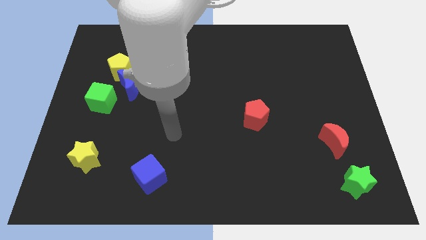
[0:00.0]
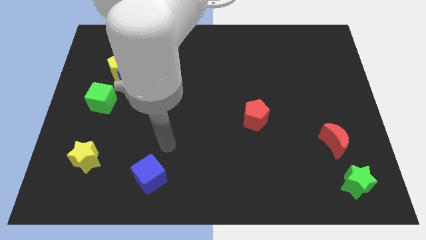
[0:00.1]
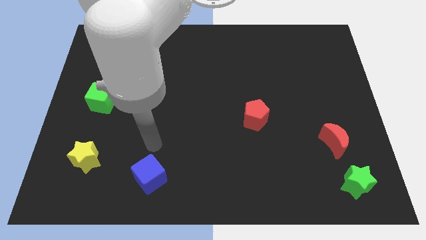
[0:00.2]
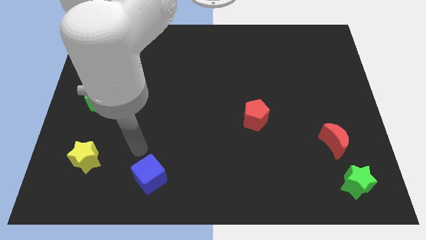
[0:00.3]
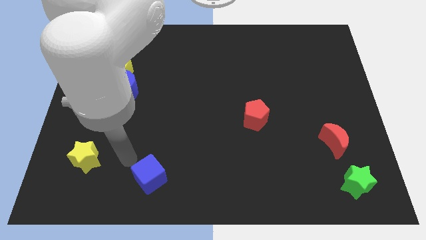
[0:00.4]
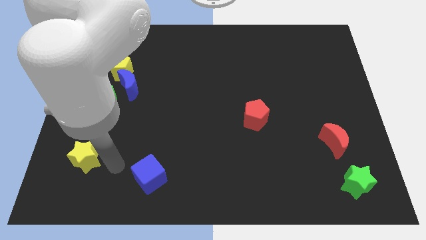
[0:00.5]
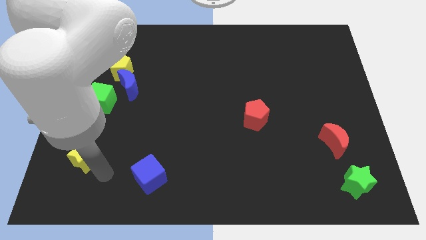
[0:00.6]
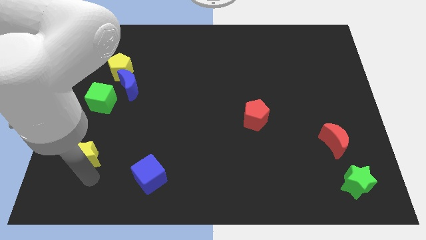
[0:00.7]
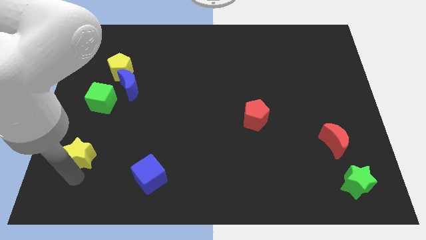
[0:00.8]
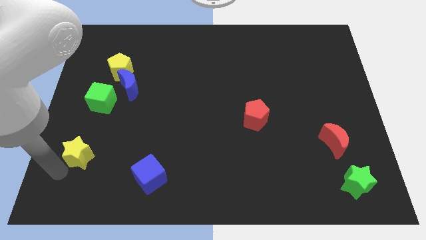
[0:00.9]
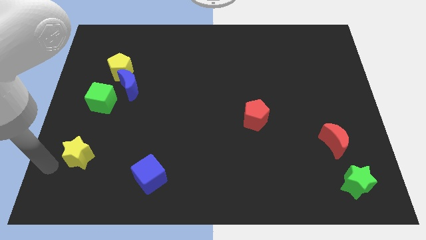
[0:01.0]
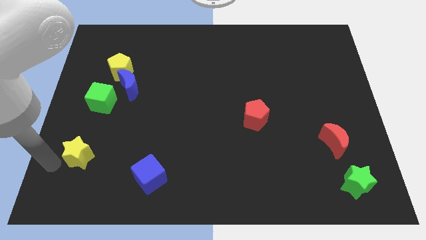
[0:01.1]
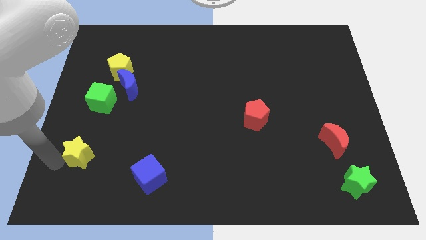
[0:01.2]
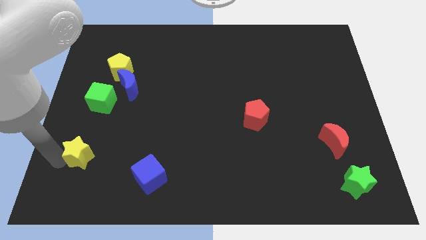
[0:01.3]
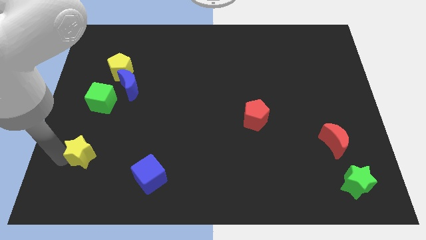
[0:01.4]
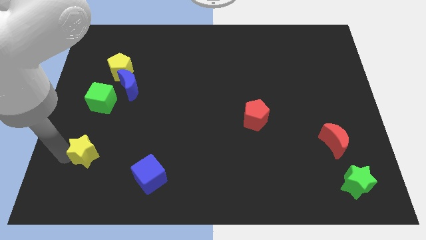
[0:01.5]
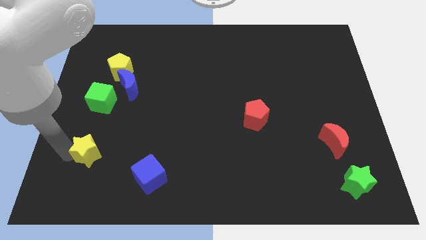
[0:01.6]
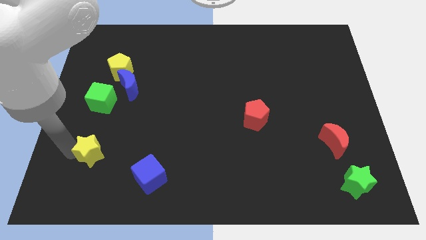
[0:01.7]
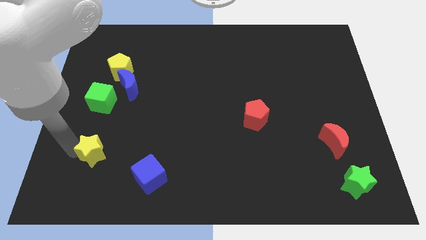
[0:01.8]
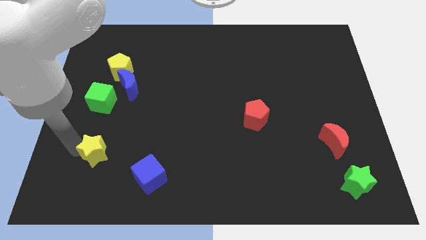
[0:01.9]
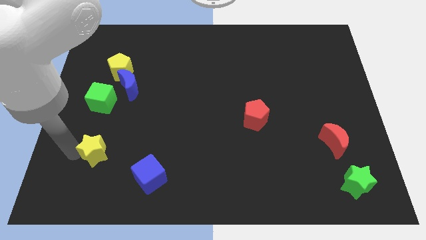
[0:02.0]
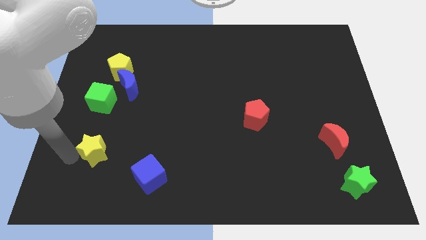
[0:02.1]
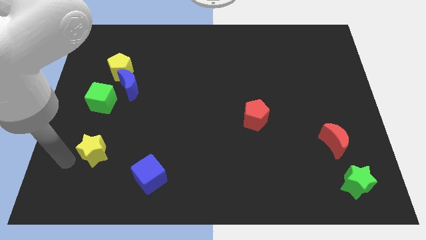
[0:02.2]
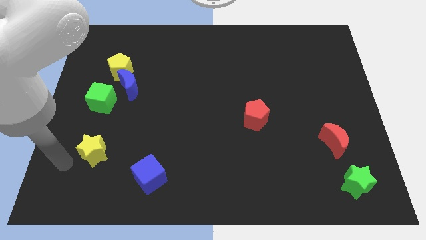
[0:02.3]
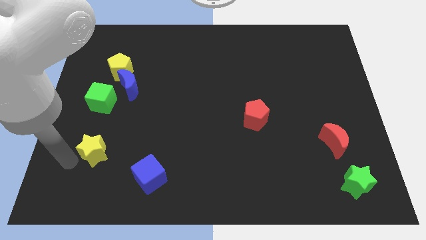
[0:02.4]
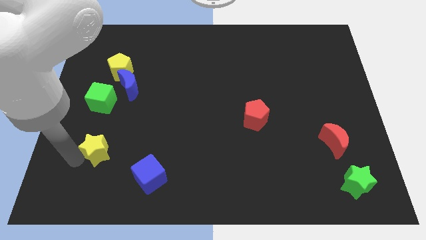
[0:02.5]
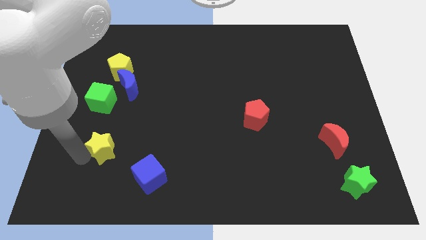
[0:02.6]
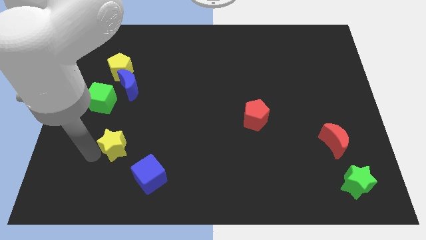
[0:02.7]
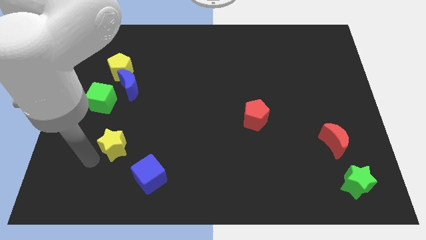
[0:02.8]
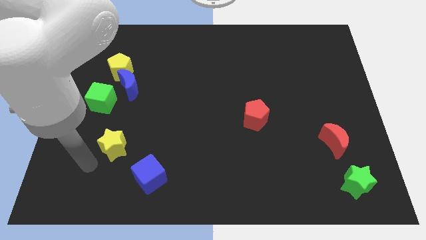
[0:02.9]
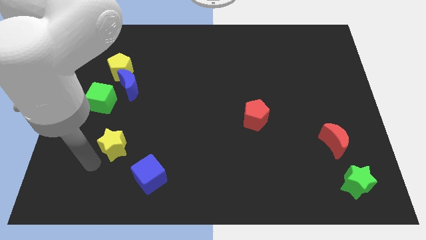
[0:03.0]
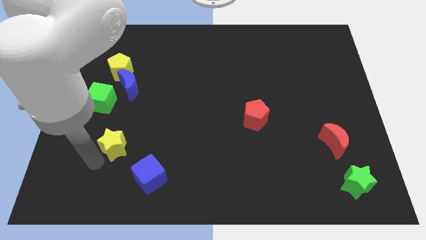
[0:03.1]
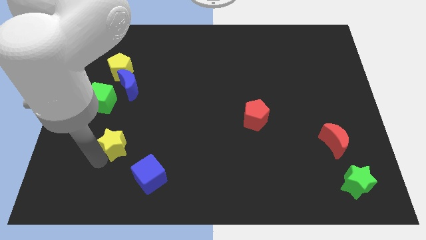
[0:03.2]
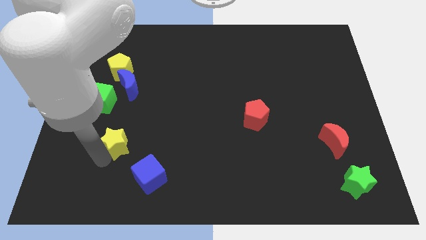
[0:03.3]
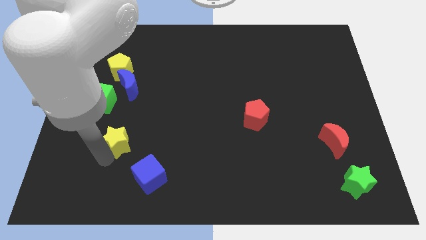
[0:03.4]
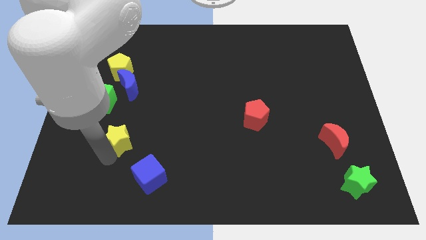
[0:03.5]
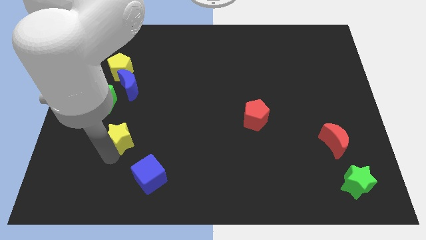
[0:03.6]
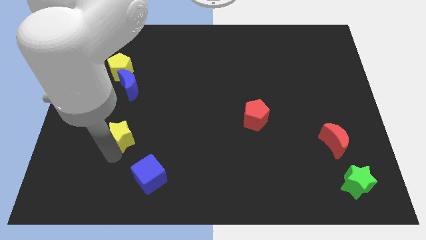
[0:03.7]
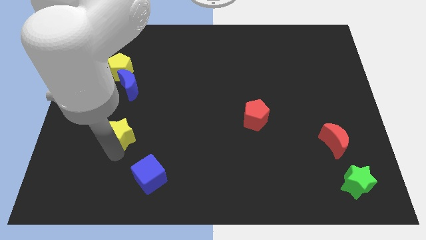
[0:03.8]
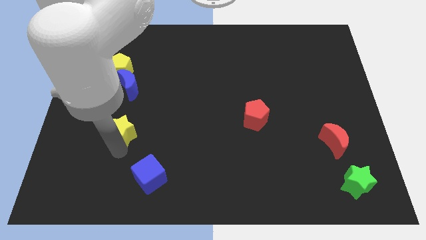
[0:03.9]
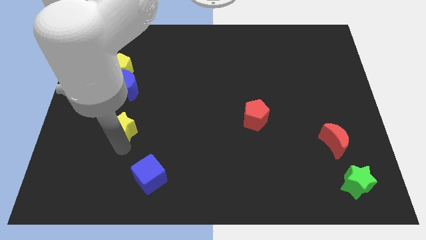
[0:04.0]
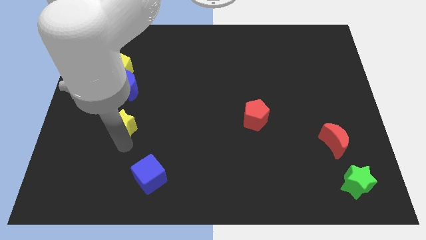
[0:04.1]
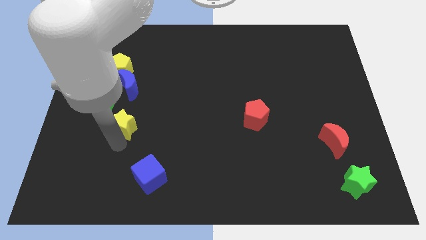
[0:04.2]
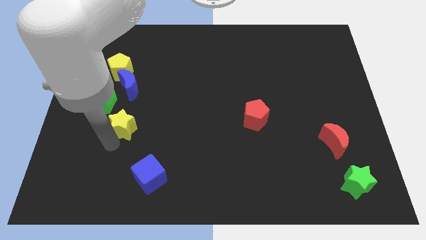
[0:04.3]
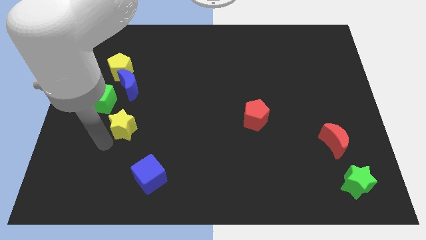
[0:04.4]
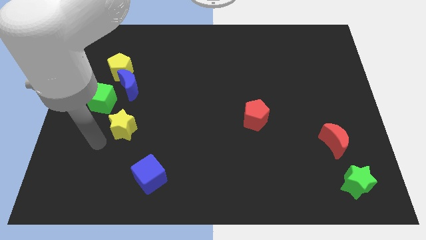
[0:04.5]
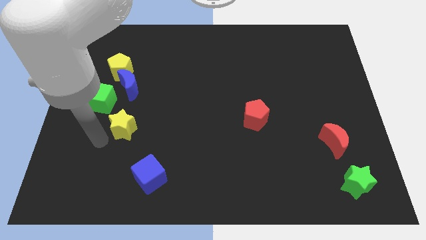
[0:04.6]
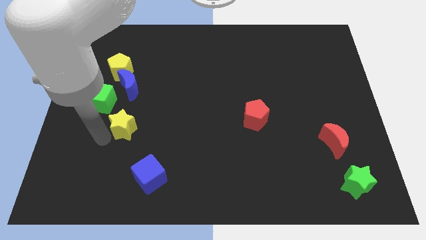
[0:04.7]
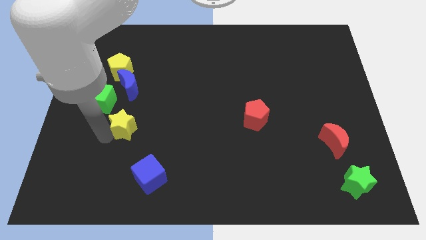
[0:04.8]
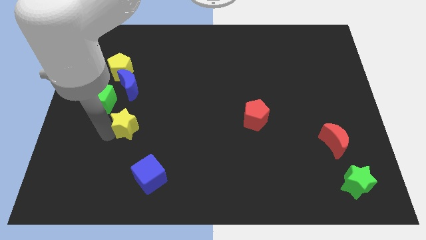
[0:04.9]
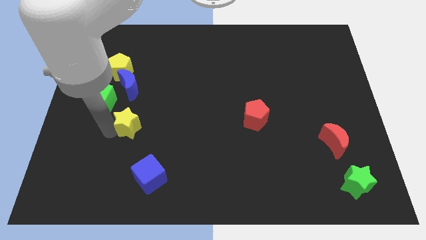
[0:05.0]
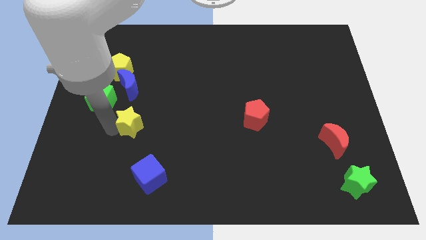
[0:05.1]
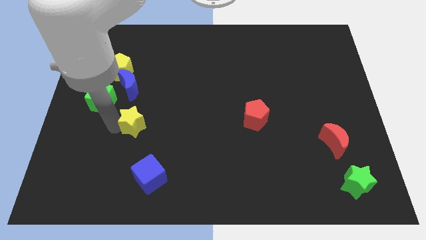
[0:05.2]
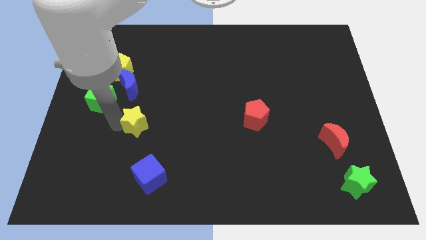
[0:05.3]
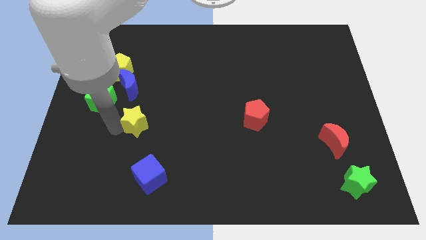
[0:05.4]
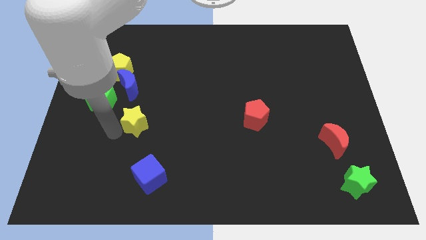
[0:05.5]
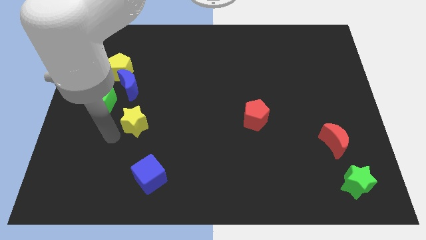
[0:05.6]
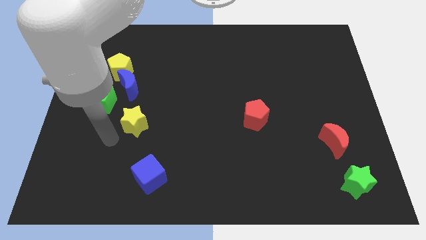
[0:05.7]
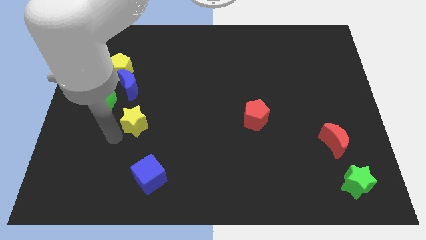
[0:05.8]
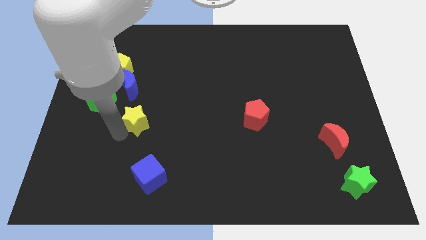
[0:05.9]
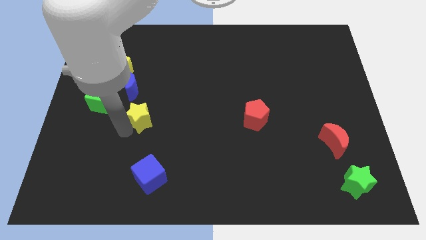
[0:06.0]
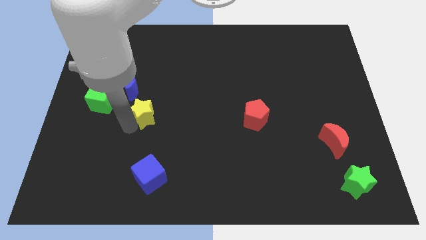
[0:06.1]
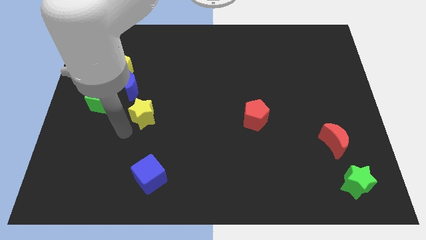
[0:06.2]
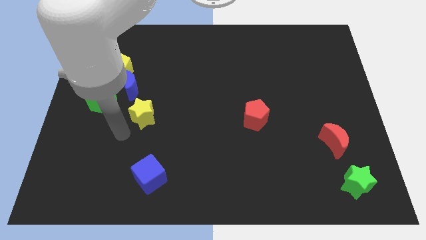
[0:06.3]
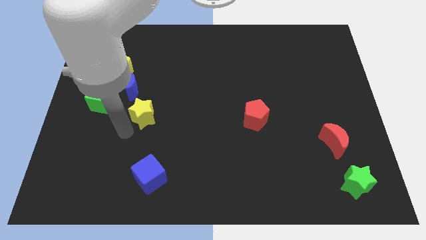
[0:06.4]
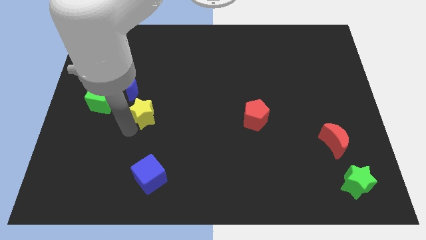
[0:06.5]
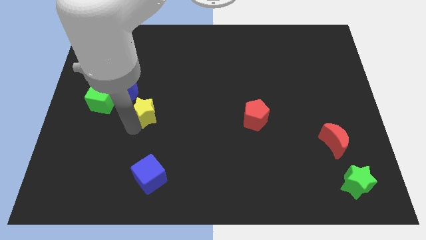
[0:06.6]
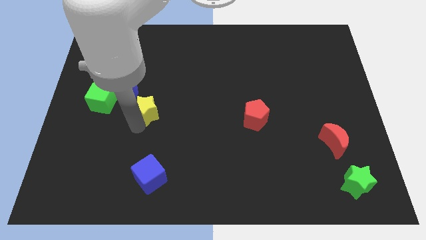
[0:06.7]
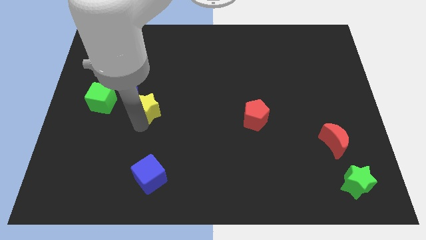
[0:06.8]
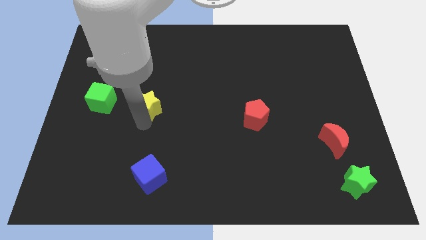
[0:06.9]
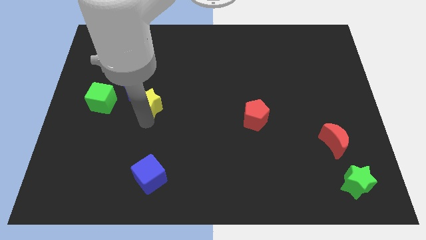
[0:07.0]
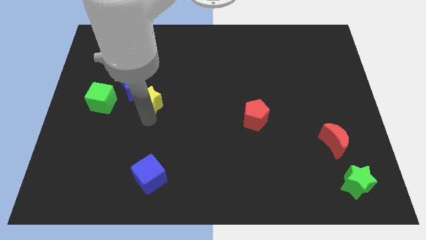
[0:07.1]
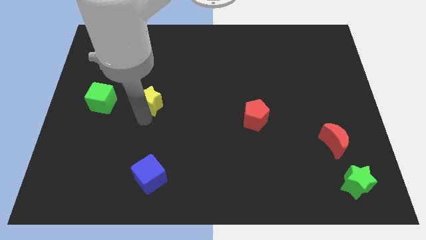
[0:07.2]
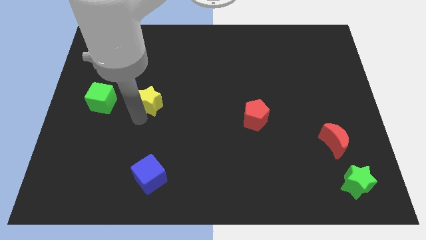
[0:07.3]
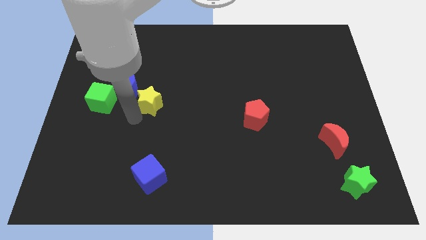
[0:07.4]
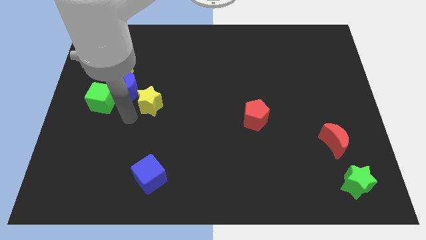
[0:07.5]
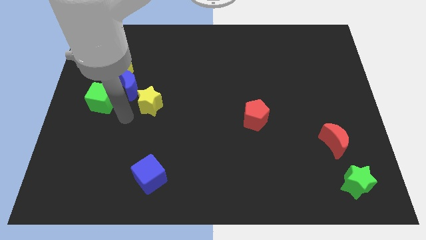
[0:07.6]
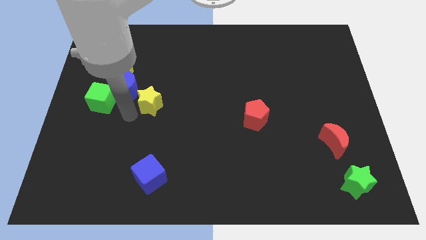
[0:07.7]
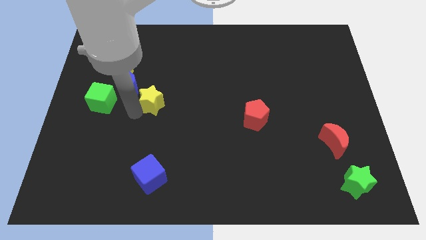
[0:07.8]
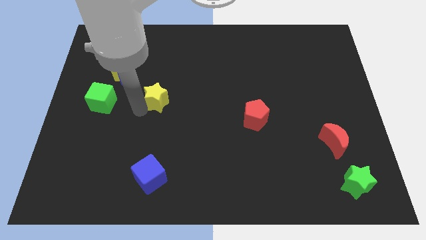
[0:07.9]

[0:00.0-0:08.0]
move the yellow star upwards and to the right
